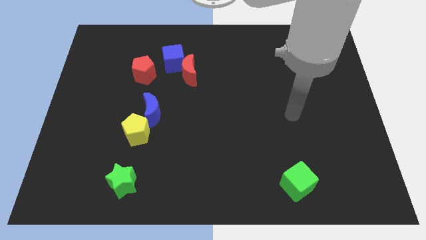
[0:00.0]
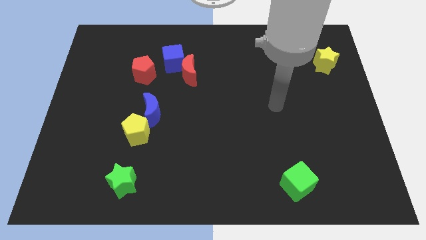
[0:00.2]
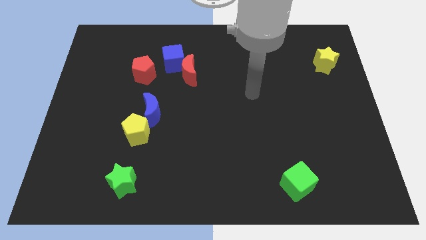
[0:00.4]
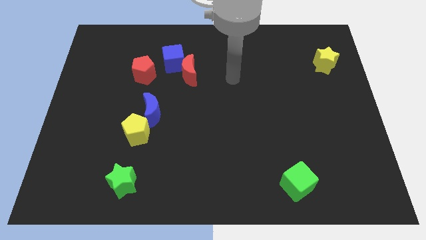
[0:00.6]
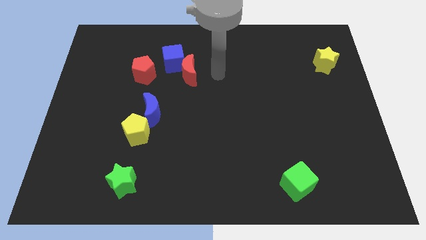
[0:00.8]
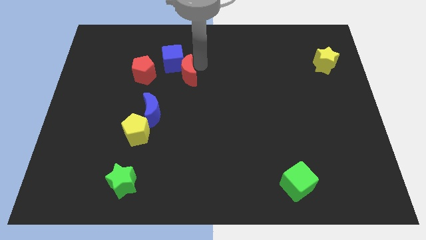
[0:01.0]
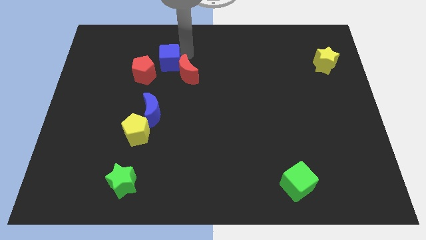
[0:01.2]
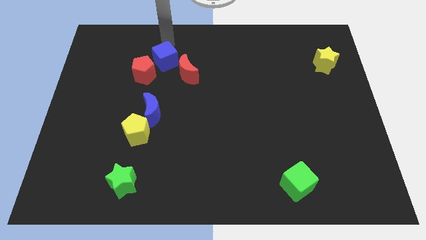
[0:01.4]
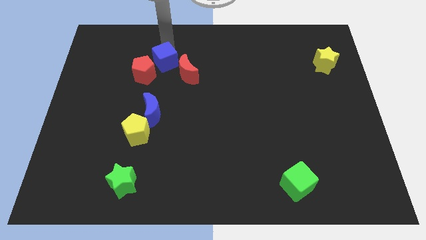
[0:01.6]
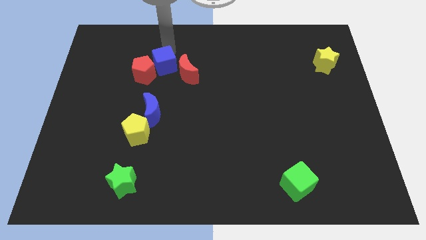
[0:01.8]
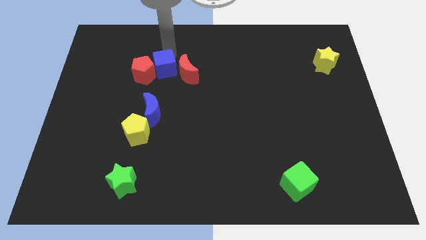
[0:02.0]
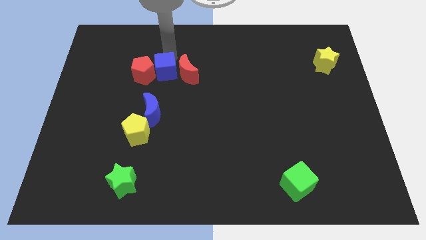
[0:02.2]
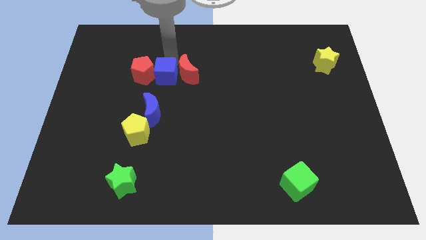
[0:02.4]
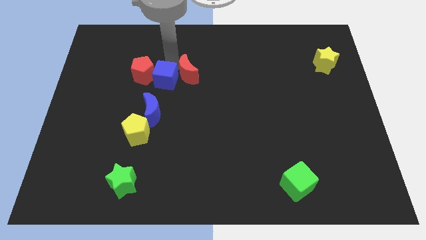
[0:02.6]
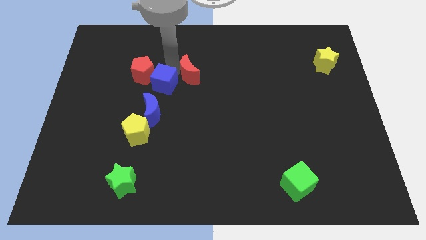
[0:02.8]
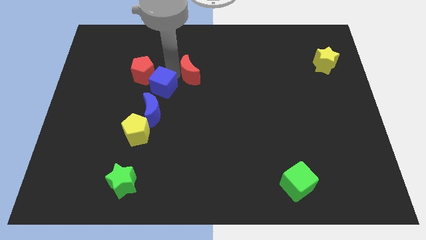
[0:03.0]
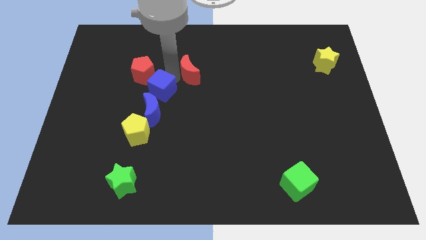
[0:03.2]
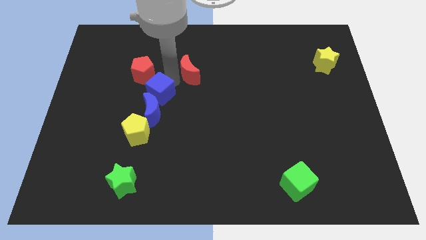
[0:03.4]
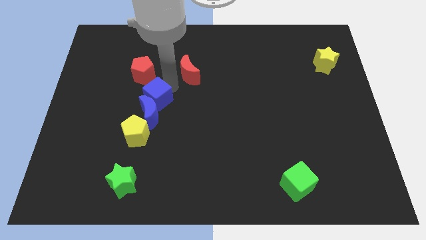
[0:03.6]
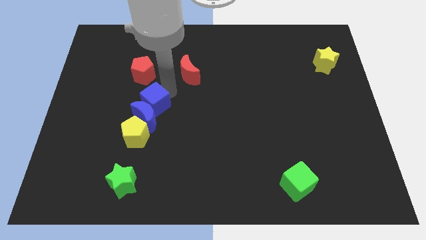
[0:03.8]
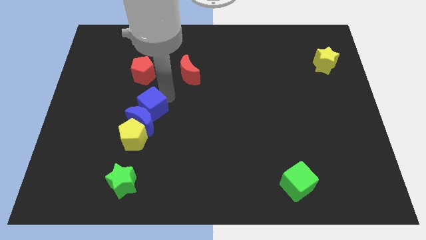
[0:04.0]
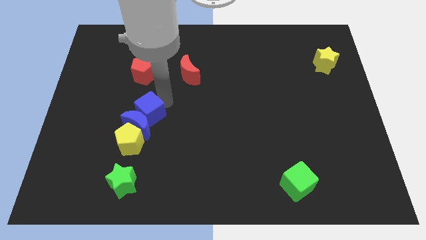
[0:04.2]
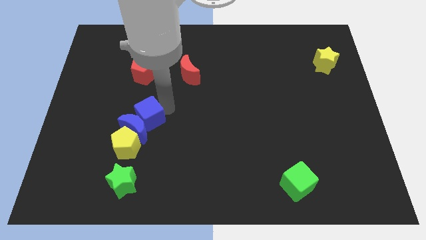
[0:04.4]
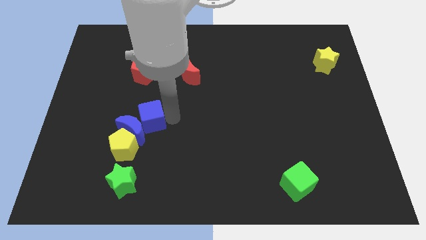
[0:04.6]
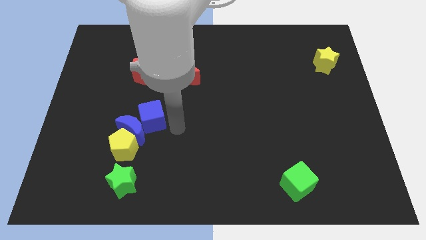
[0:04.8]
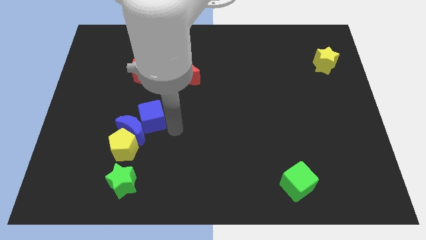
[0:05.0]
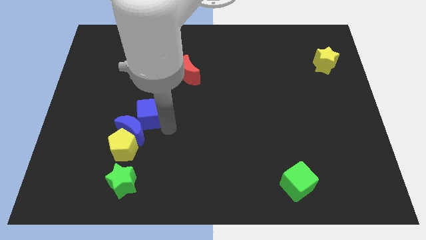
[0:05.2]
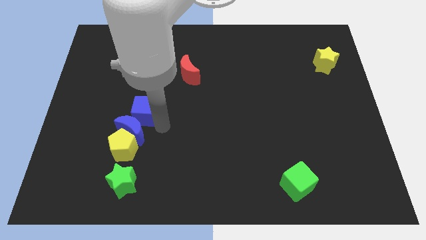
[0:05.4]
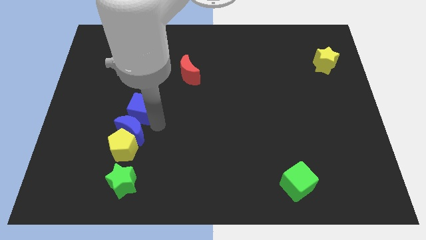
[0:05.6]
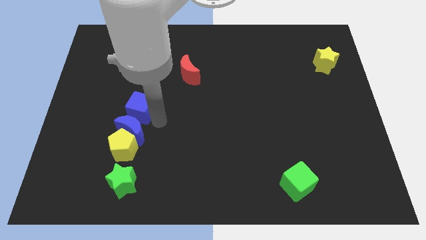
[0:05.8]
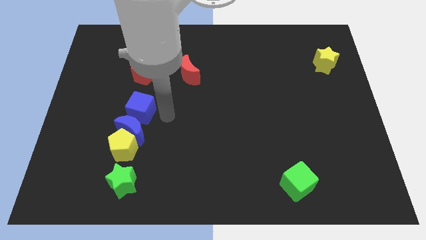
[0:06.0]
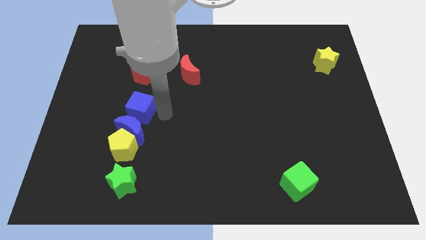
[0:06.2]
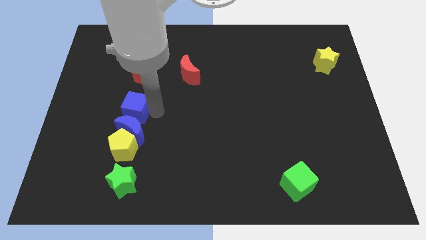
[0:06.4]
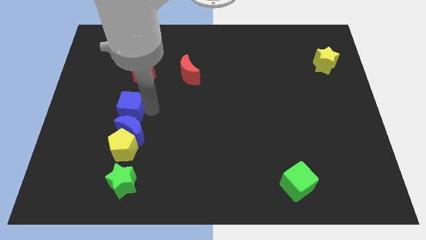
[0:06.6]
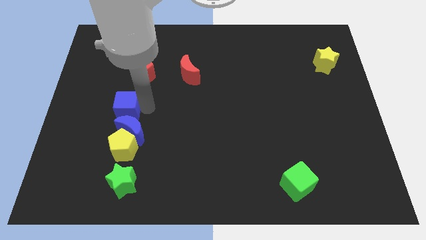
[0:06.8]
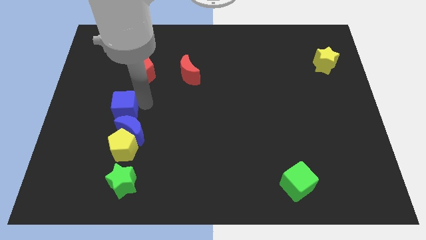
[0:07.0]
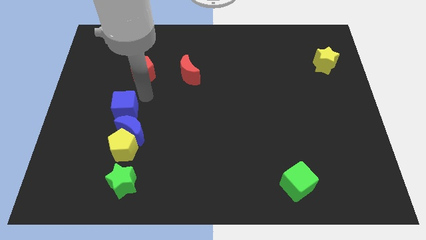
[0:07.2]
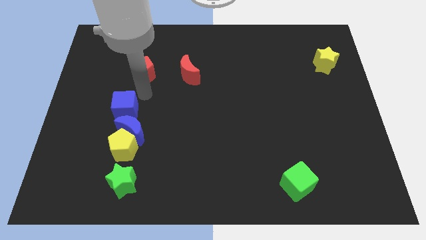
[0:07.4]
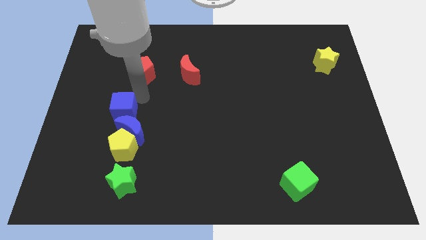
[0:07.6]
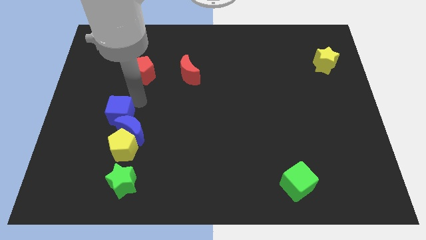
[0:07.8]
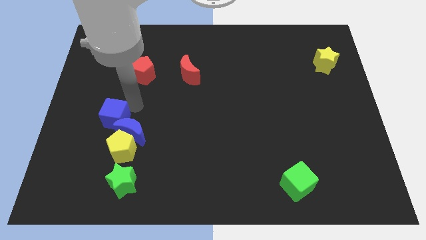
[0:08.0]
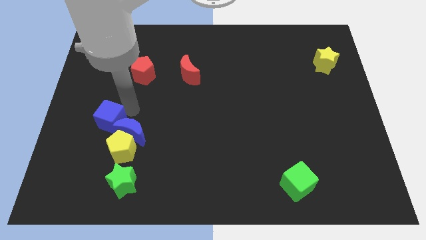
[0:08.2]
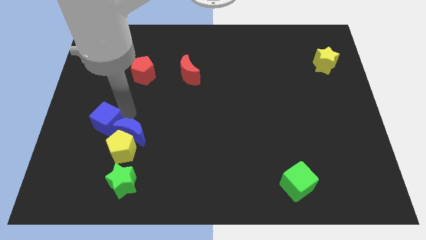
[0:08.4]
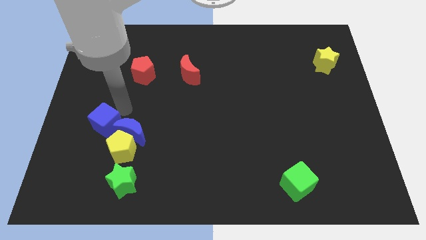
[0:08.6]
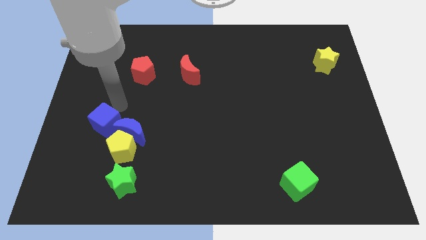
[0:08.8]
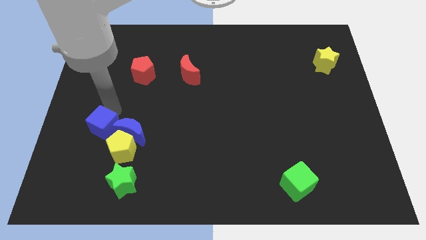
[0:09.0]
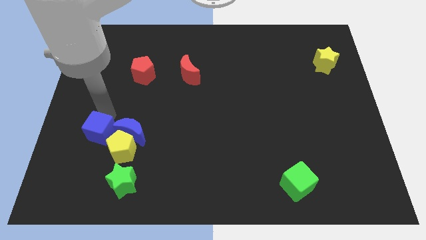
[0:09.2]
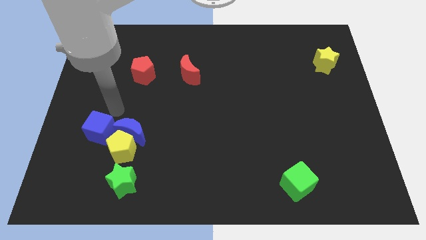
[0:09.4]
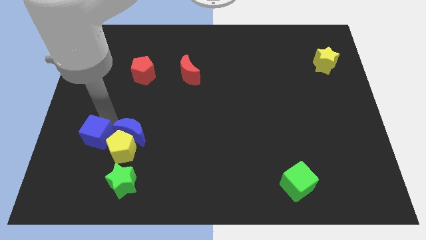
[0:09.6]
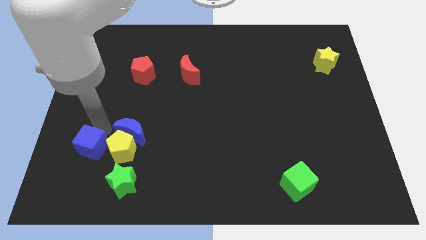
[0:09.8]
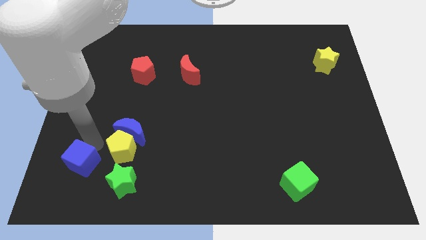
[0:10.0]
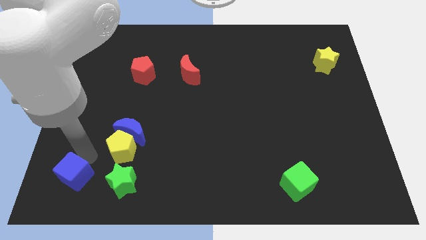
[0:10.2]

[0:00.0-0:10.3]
push the blue cube to the bottom left of the board

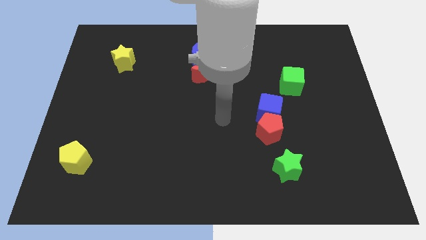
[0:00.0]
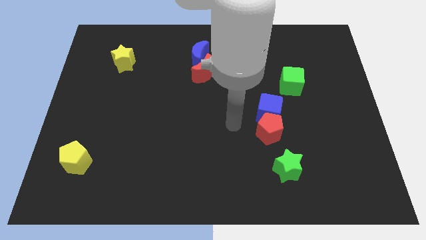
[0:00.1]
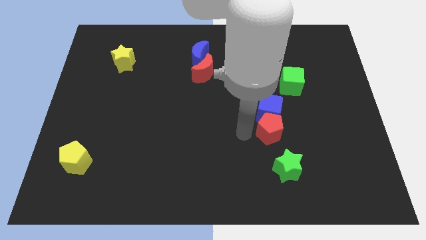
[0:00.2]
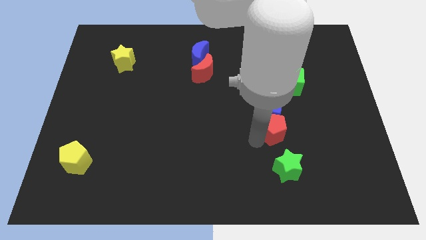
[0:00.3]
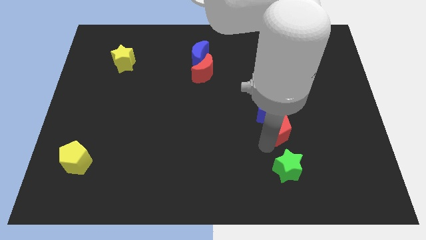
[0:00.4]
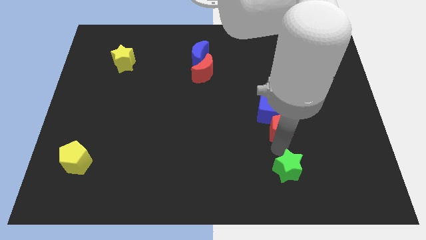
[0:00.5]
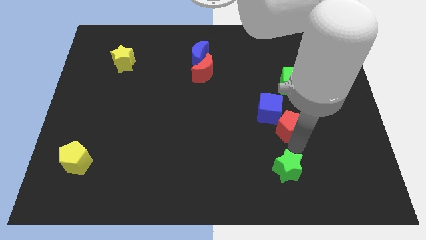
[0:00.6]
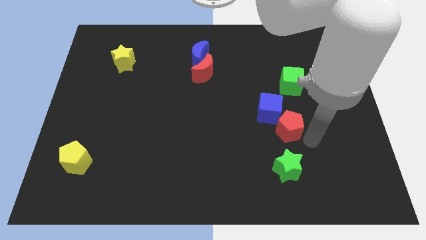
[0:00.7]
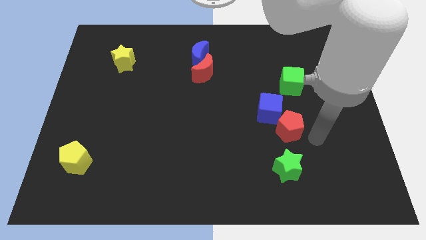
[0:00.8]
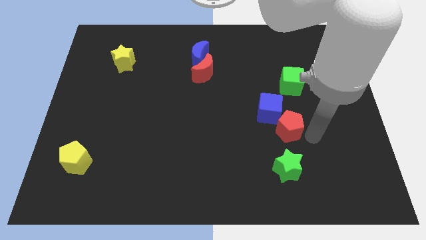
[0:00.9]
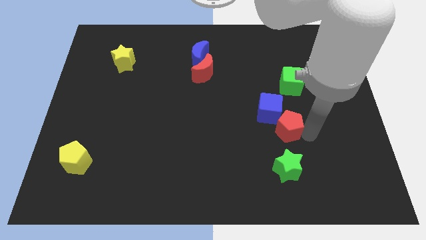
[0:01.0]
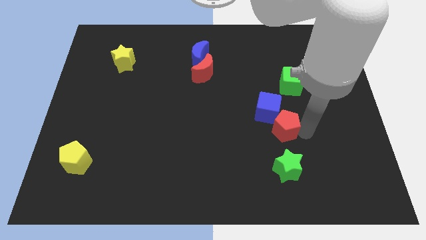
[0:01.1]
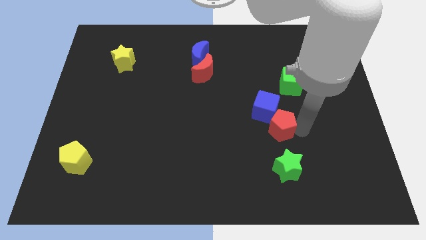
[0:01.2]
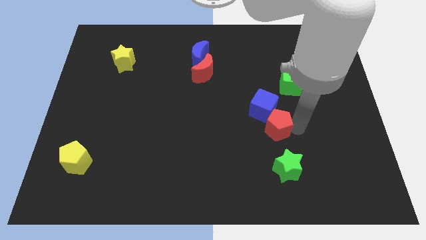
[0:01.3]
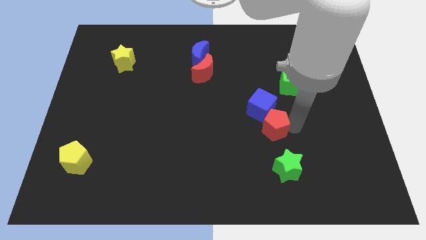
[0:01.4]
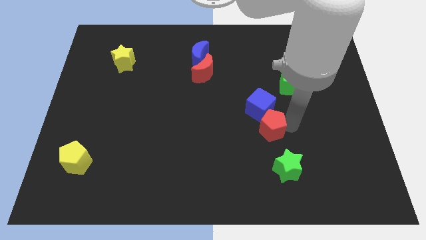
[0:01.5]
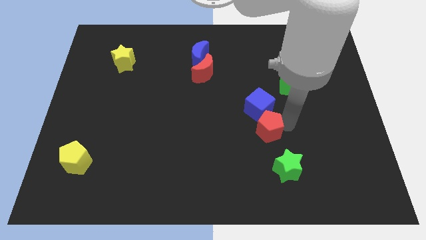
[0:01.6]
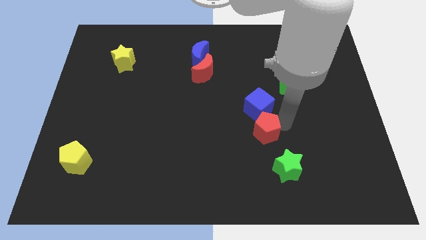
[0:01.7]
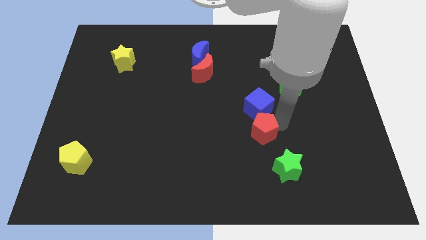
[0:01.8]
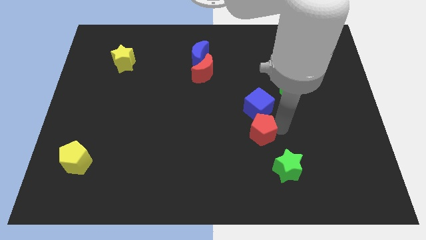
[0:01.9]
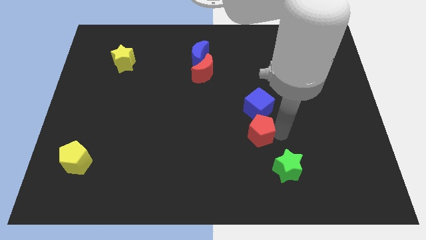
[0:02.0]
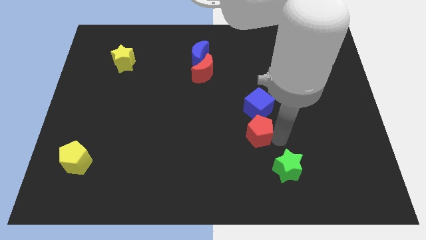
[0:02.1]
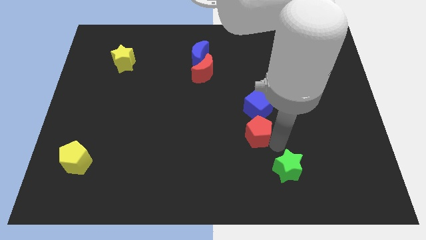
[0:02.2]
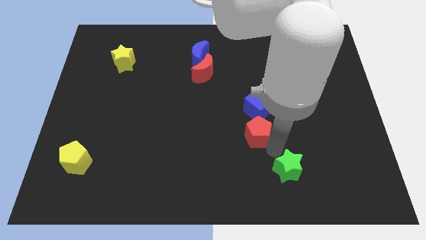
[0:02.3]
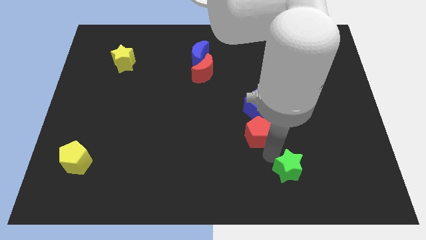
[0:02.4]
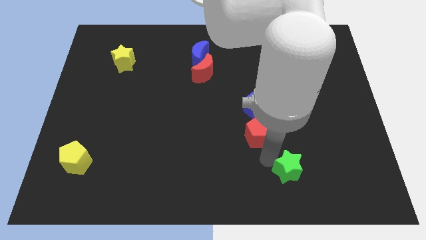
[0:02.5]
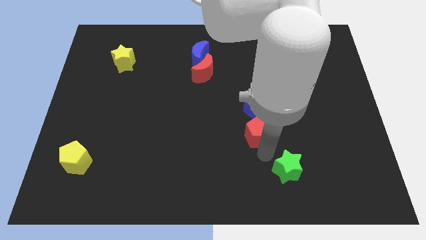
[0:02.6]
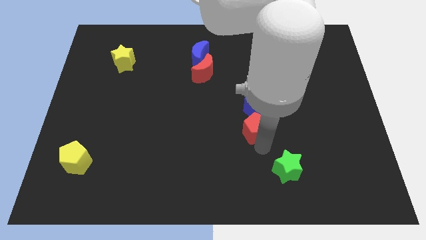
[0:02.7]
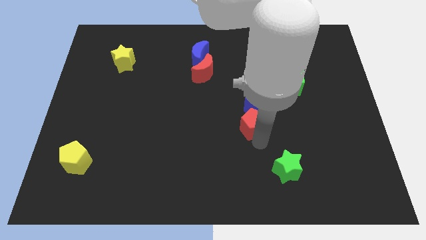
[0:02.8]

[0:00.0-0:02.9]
put the red pentagon to the middle of the board
